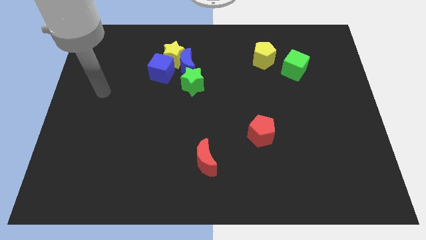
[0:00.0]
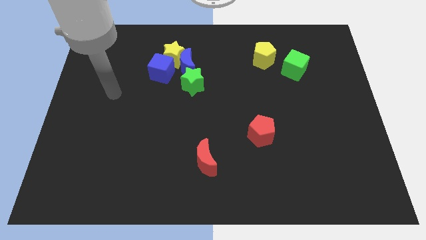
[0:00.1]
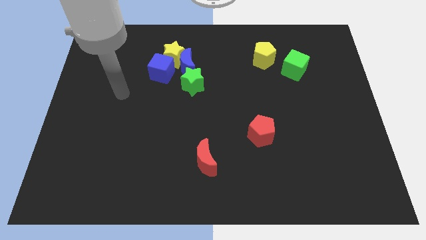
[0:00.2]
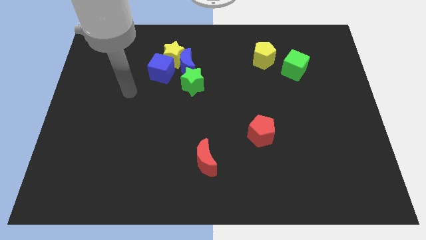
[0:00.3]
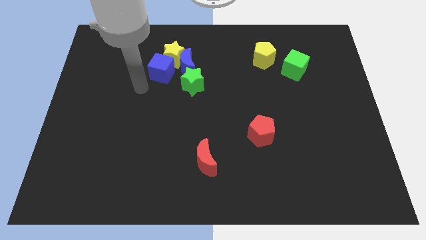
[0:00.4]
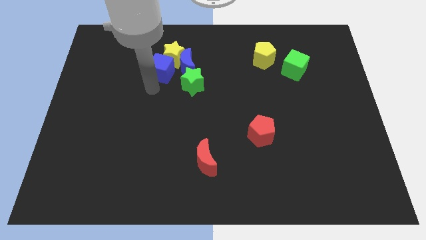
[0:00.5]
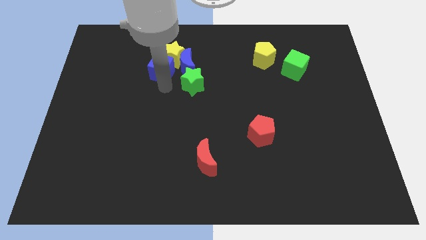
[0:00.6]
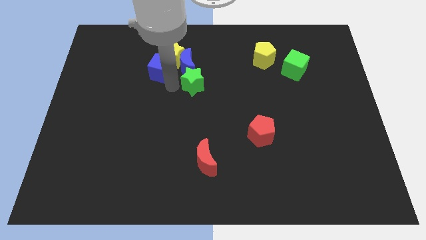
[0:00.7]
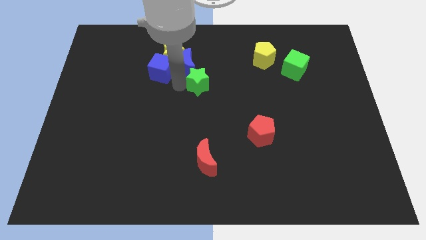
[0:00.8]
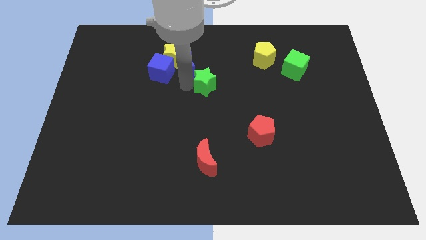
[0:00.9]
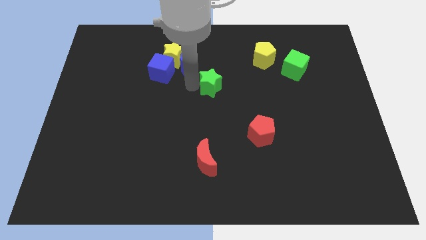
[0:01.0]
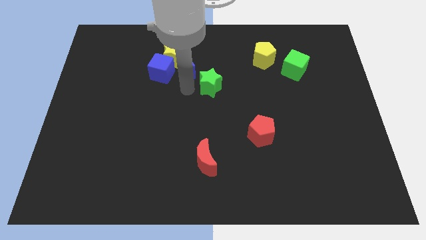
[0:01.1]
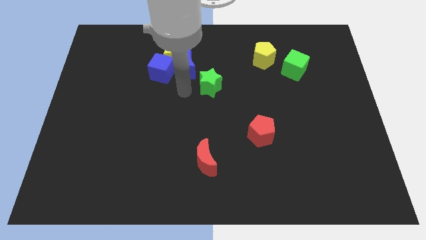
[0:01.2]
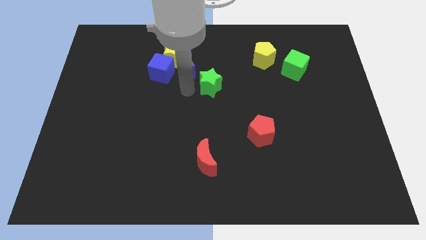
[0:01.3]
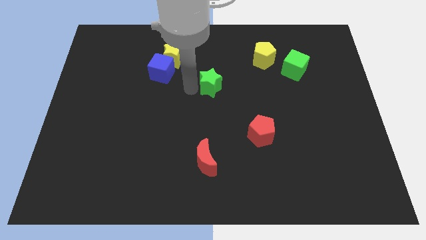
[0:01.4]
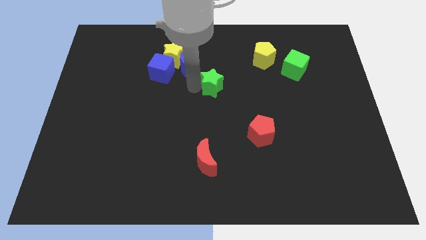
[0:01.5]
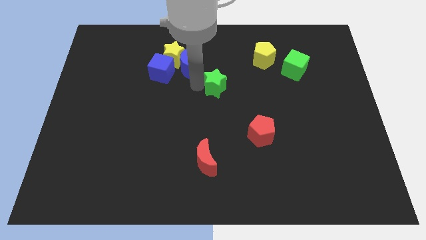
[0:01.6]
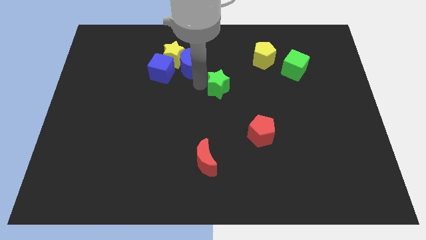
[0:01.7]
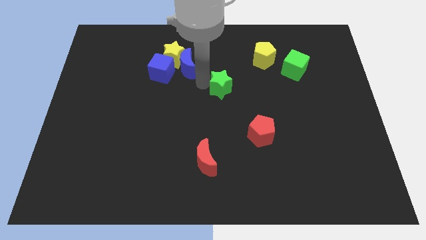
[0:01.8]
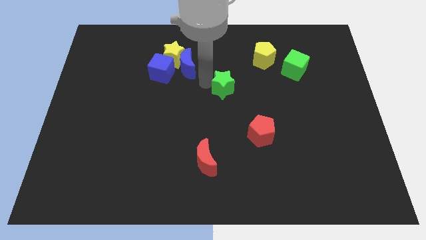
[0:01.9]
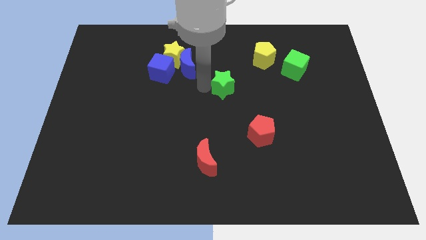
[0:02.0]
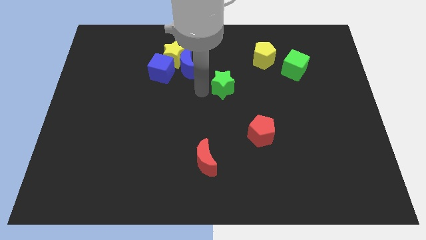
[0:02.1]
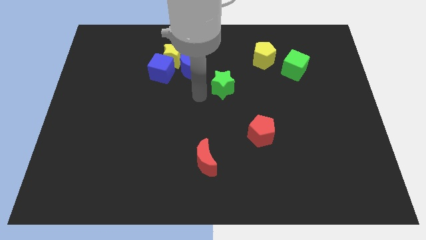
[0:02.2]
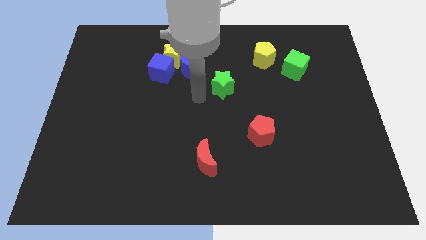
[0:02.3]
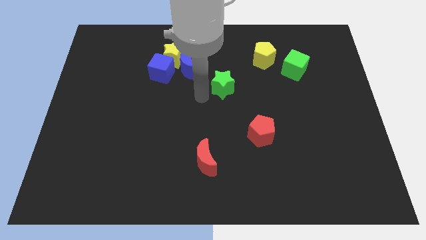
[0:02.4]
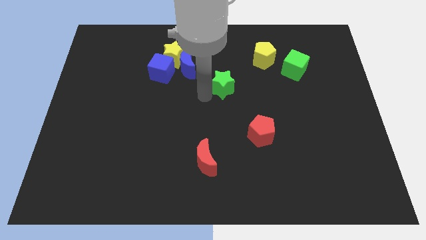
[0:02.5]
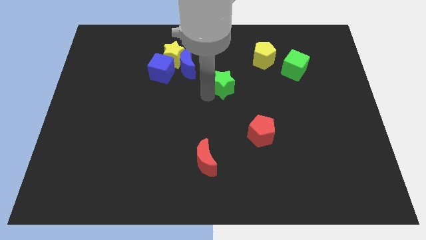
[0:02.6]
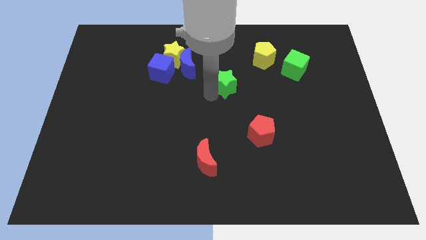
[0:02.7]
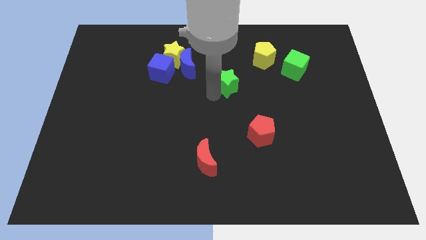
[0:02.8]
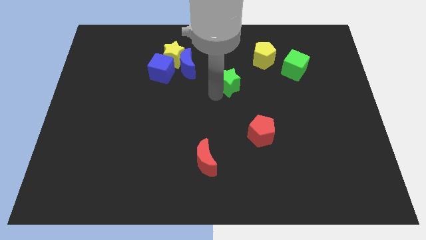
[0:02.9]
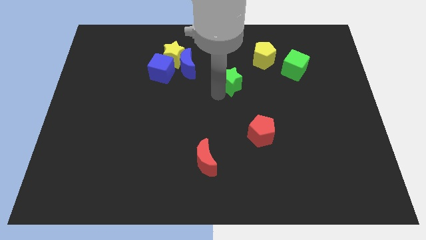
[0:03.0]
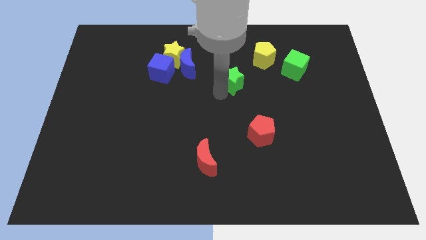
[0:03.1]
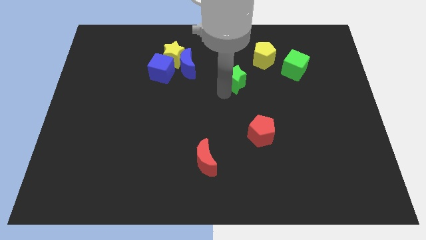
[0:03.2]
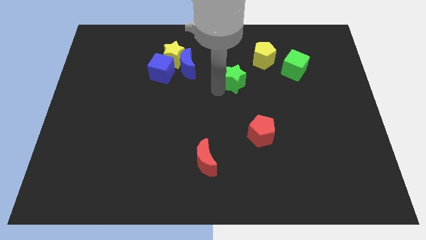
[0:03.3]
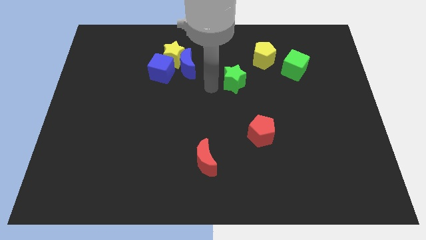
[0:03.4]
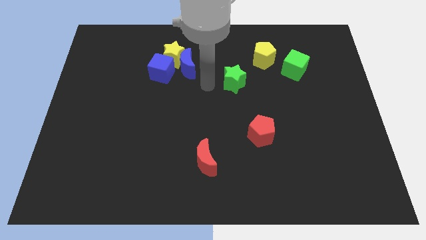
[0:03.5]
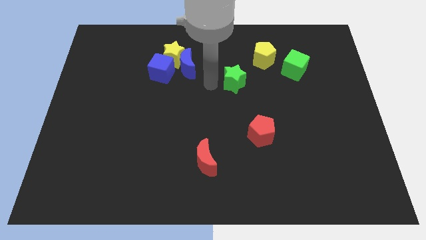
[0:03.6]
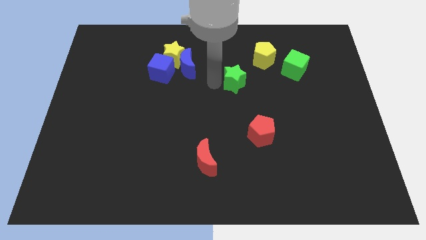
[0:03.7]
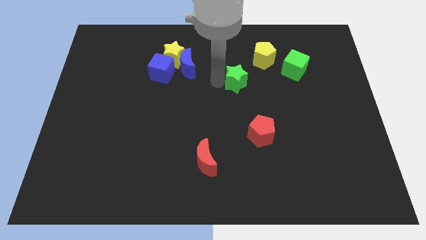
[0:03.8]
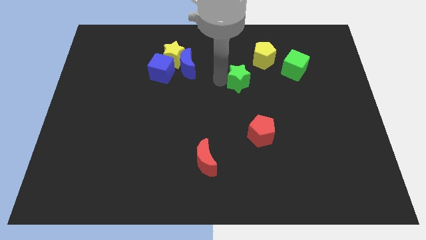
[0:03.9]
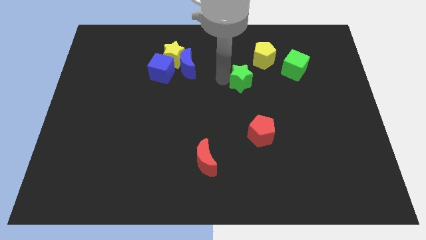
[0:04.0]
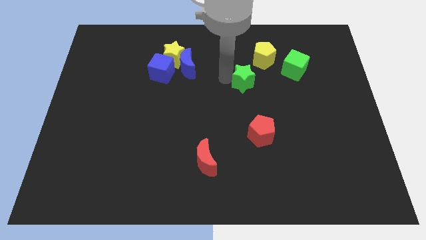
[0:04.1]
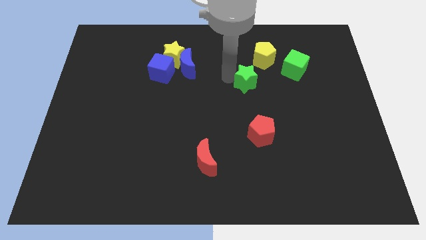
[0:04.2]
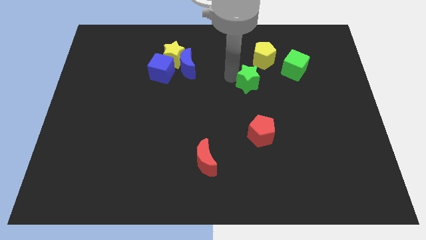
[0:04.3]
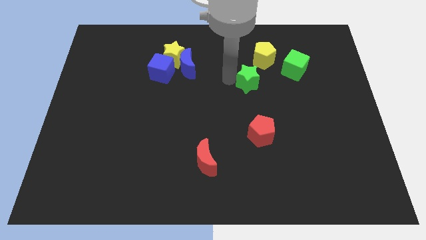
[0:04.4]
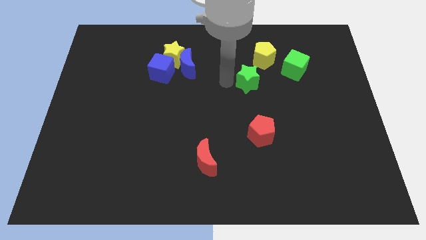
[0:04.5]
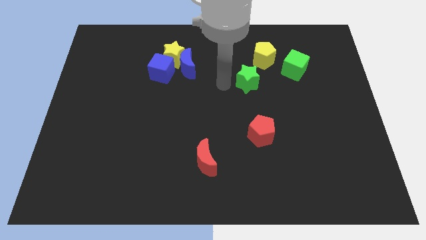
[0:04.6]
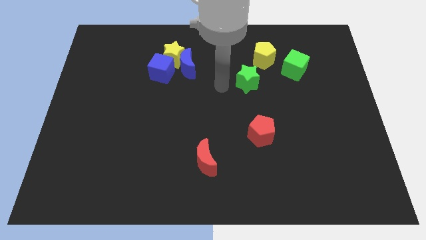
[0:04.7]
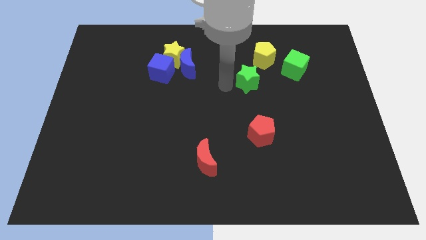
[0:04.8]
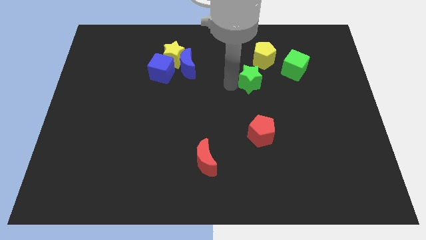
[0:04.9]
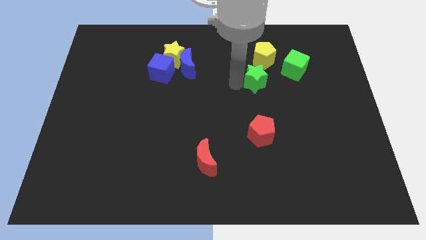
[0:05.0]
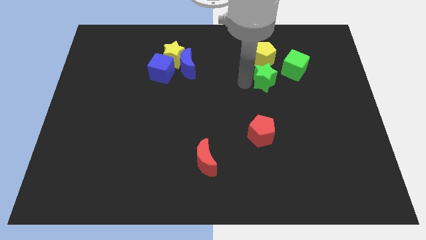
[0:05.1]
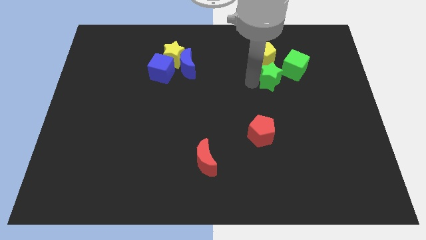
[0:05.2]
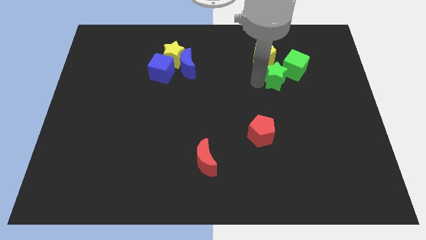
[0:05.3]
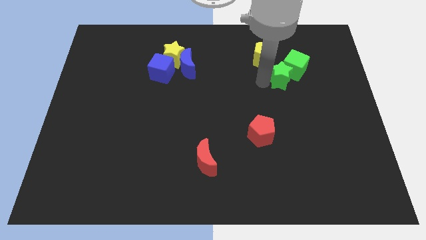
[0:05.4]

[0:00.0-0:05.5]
move the green star to the green cube

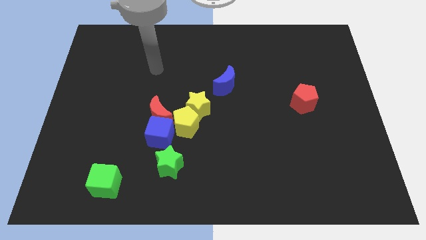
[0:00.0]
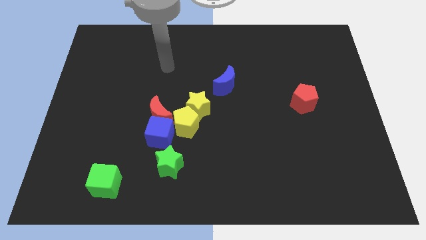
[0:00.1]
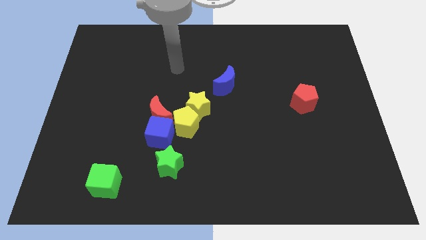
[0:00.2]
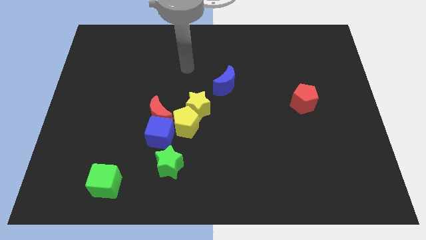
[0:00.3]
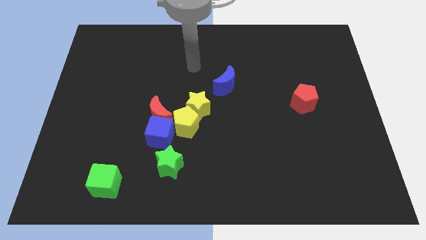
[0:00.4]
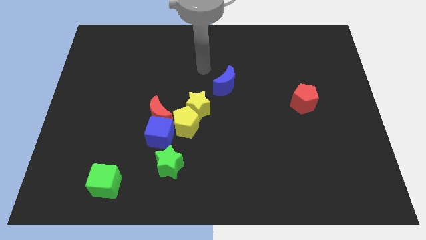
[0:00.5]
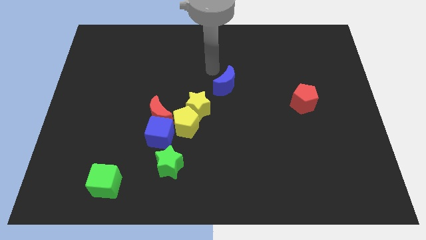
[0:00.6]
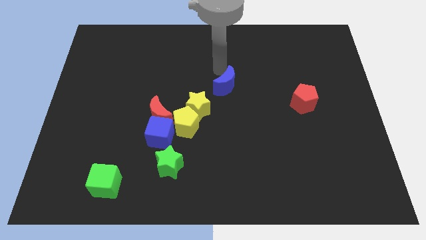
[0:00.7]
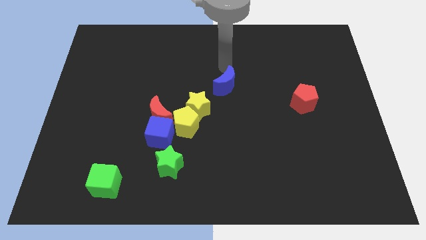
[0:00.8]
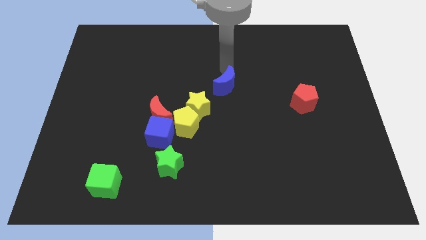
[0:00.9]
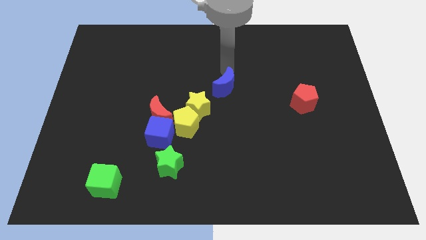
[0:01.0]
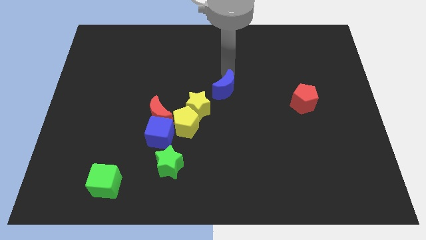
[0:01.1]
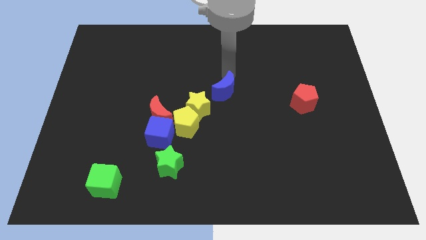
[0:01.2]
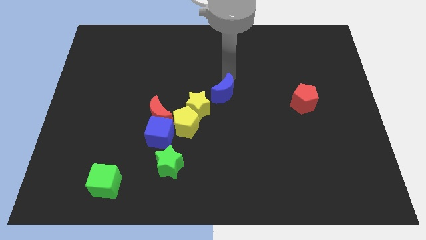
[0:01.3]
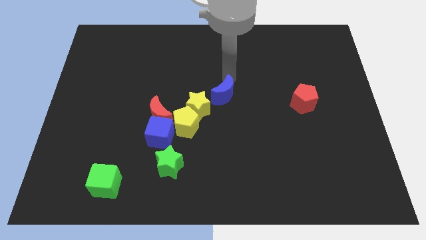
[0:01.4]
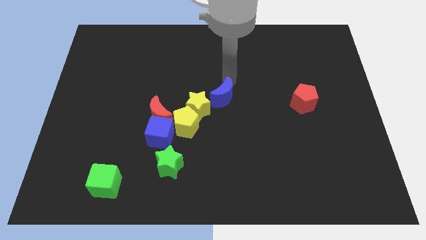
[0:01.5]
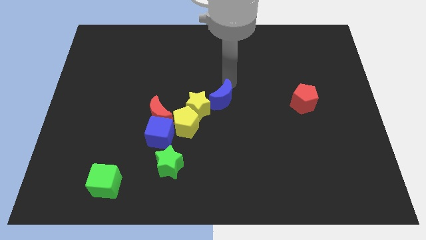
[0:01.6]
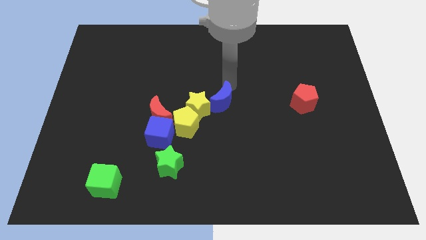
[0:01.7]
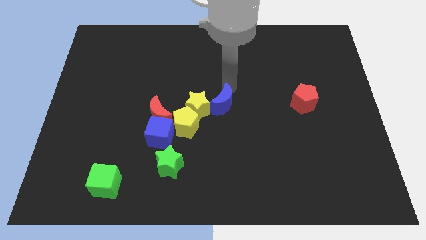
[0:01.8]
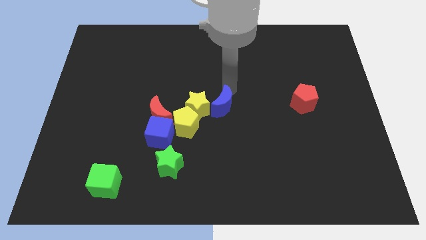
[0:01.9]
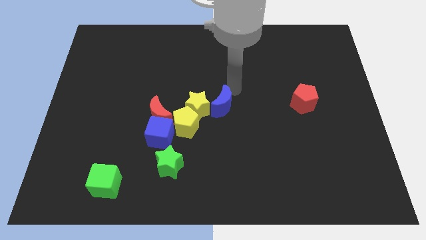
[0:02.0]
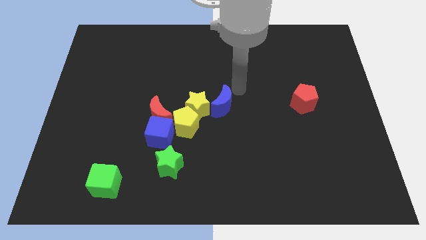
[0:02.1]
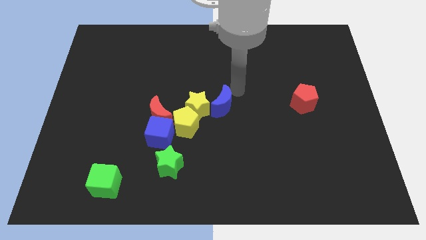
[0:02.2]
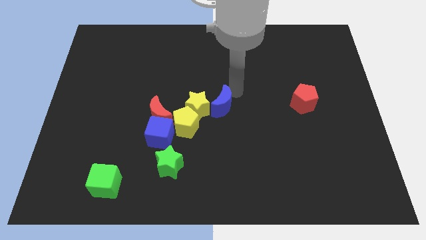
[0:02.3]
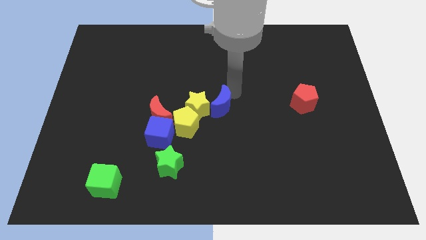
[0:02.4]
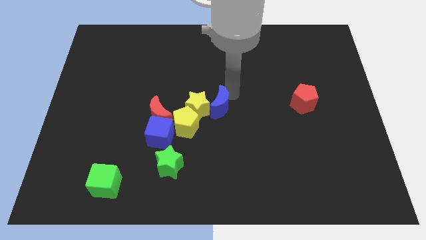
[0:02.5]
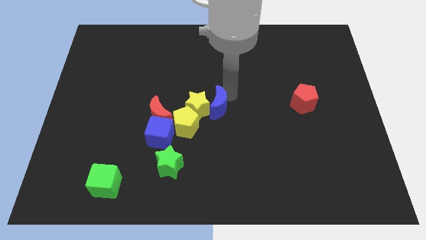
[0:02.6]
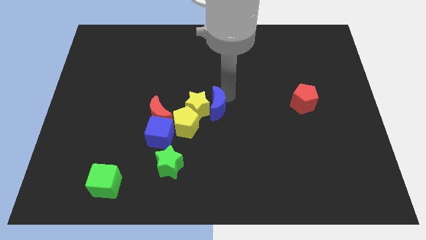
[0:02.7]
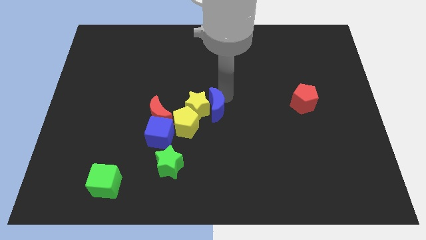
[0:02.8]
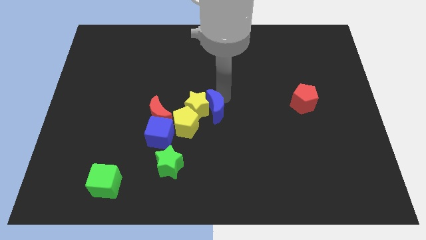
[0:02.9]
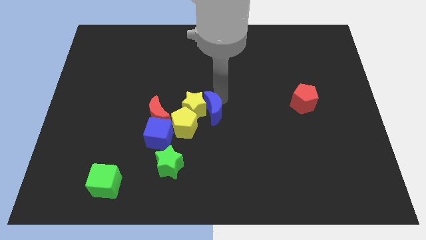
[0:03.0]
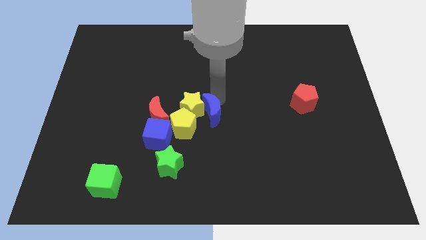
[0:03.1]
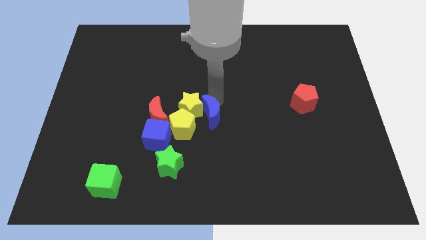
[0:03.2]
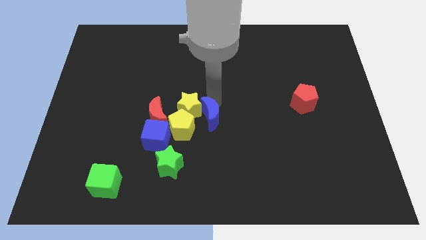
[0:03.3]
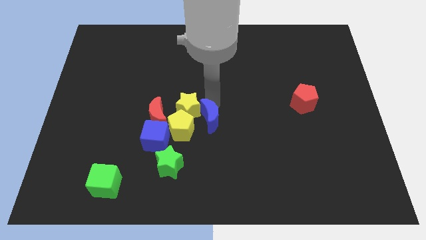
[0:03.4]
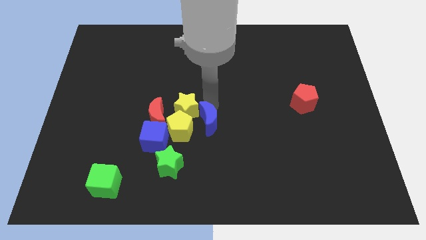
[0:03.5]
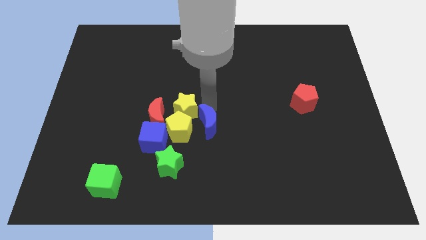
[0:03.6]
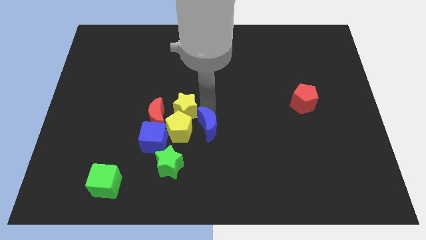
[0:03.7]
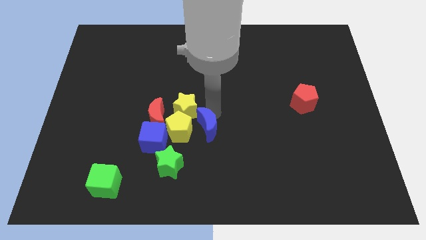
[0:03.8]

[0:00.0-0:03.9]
slide the blue moon next to the yellow pentagon
